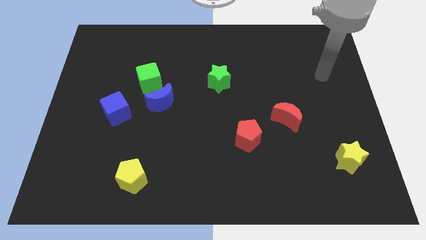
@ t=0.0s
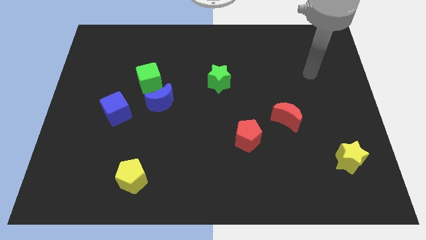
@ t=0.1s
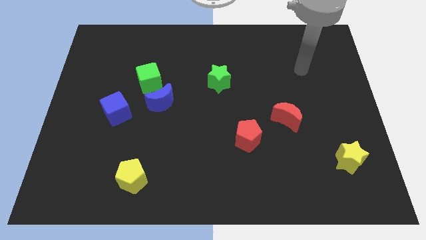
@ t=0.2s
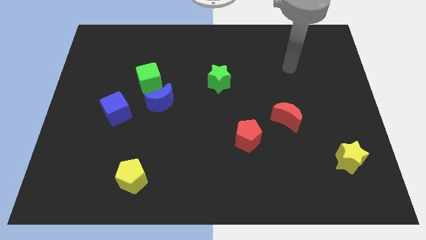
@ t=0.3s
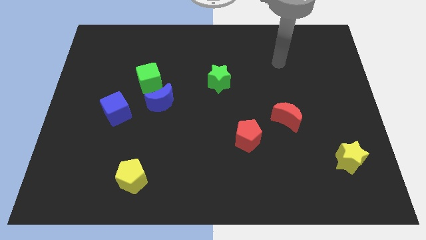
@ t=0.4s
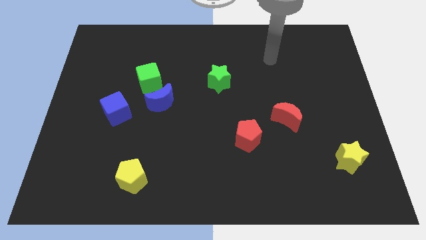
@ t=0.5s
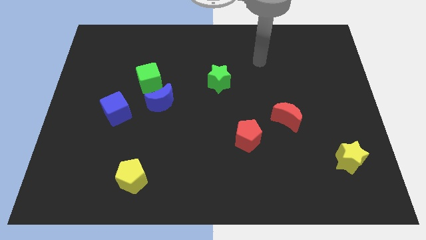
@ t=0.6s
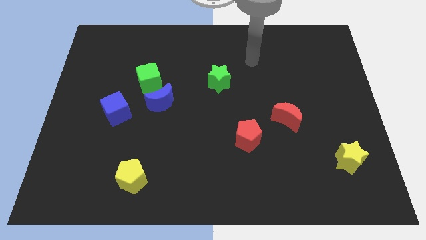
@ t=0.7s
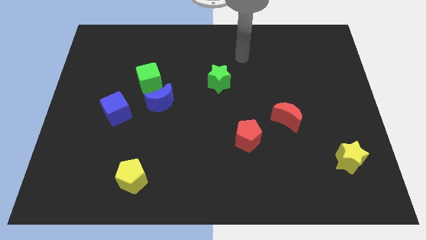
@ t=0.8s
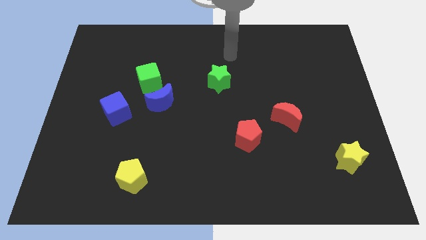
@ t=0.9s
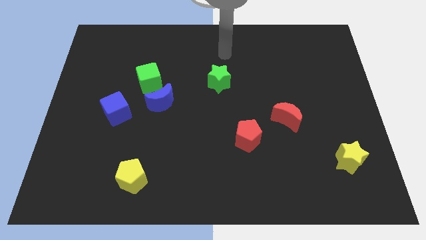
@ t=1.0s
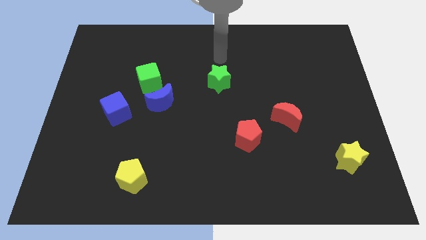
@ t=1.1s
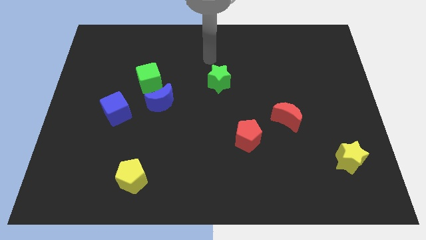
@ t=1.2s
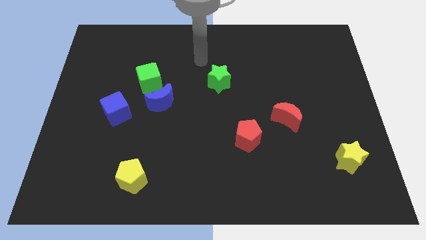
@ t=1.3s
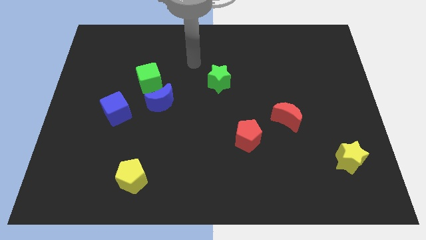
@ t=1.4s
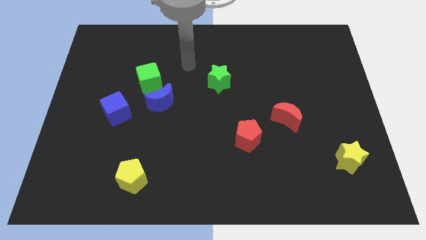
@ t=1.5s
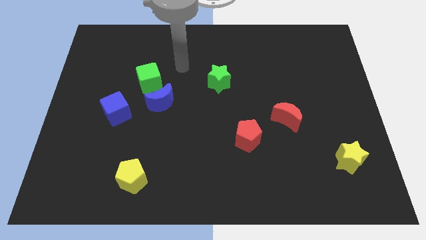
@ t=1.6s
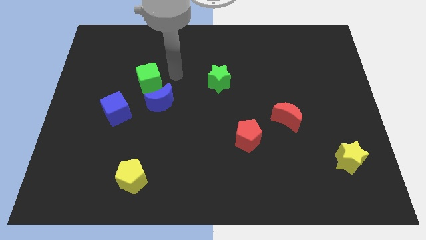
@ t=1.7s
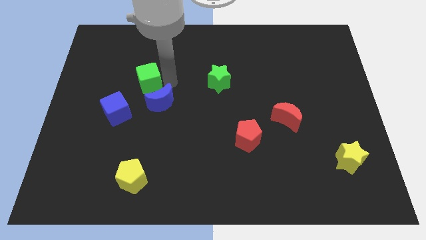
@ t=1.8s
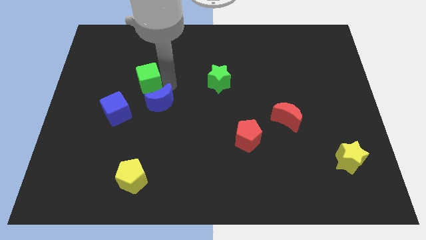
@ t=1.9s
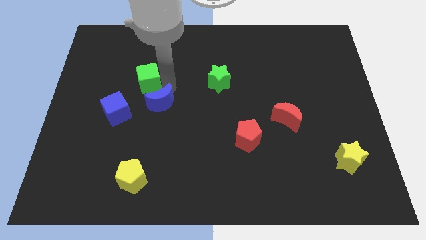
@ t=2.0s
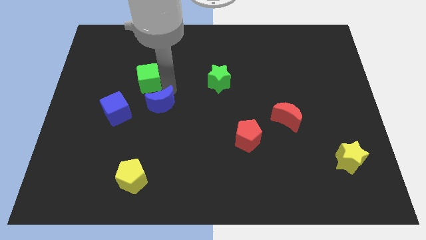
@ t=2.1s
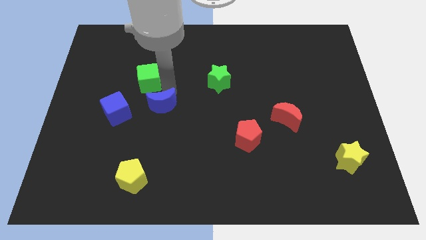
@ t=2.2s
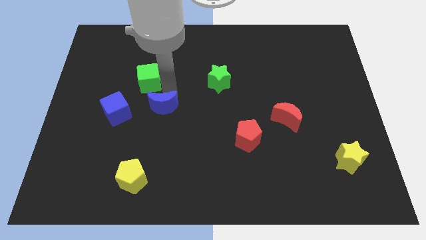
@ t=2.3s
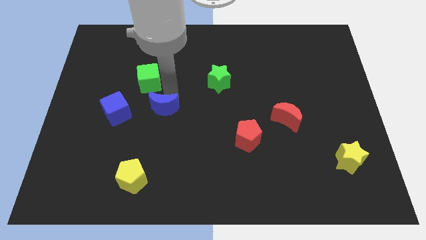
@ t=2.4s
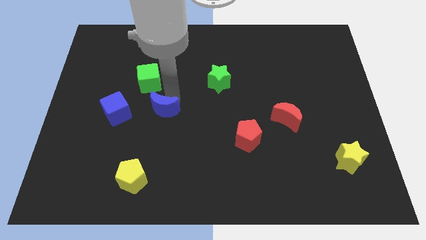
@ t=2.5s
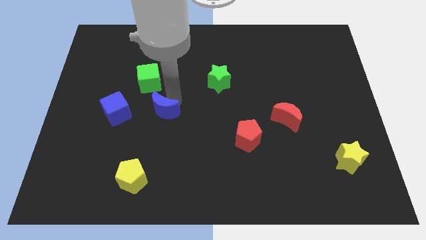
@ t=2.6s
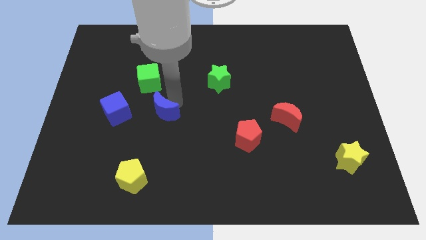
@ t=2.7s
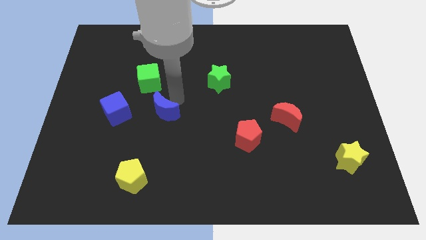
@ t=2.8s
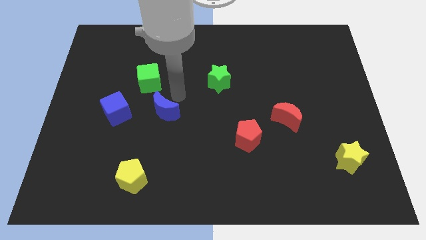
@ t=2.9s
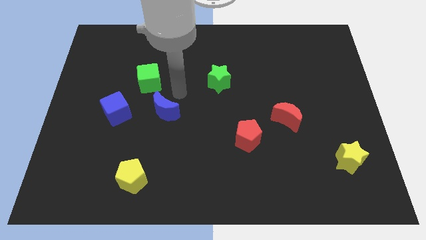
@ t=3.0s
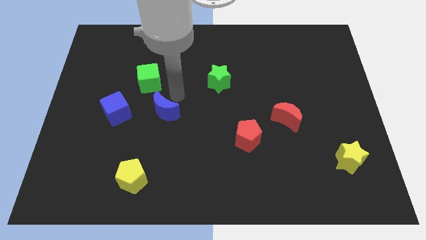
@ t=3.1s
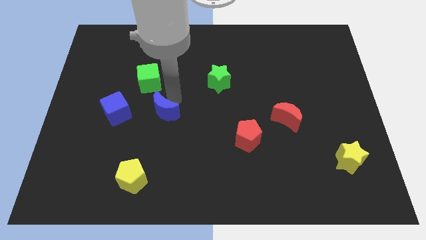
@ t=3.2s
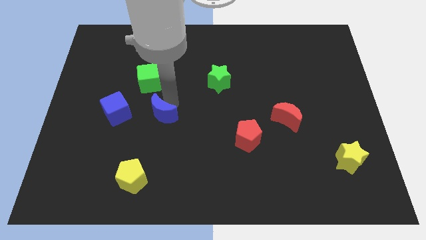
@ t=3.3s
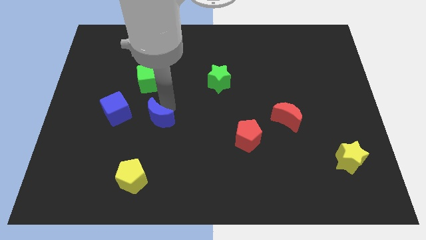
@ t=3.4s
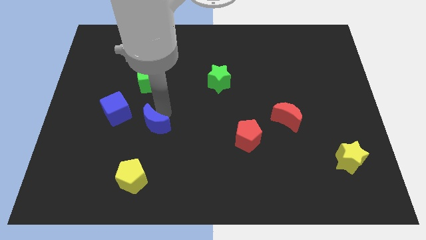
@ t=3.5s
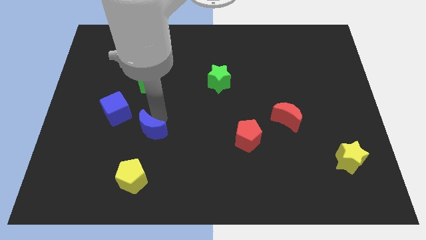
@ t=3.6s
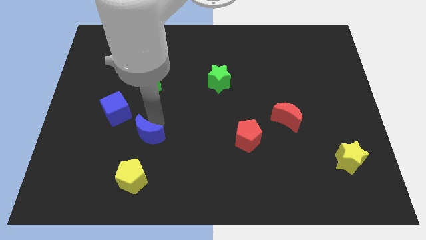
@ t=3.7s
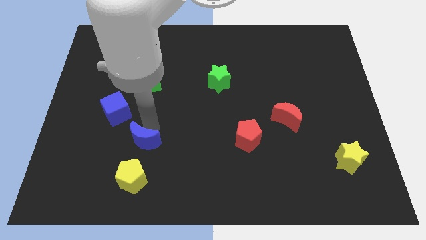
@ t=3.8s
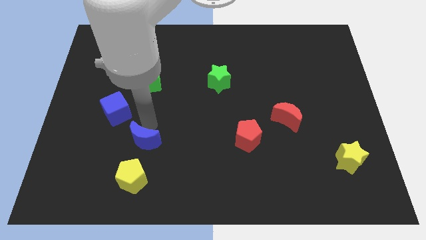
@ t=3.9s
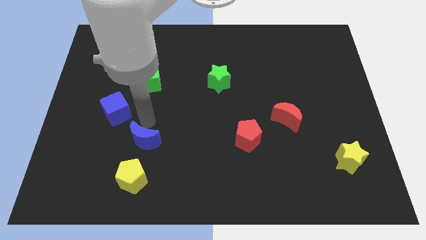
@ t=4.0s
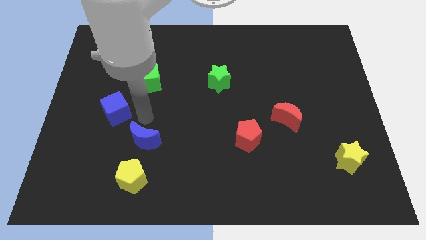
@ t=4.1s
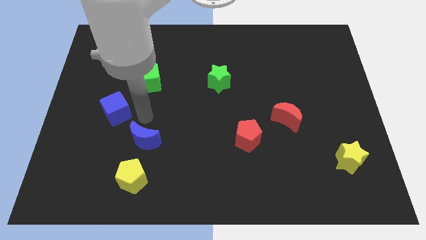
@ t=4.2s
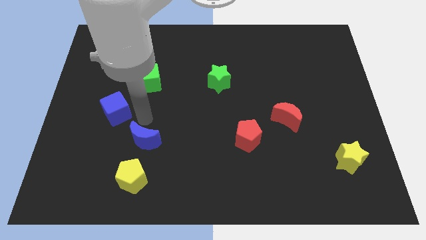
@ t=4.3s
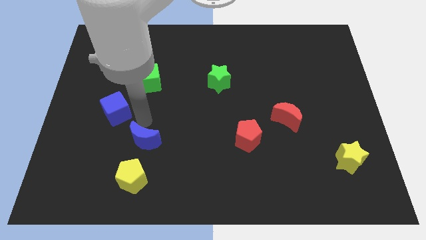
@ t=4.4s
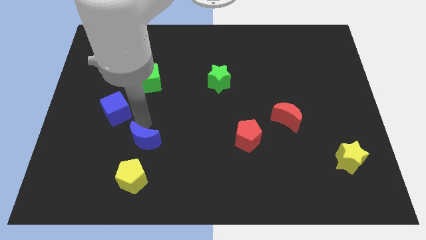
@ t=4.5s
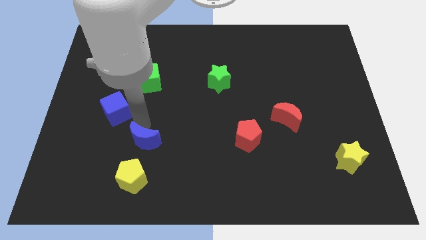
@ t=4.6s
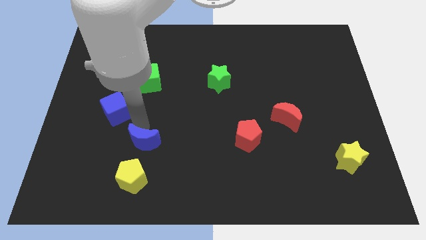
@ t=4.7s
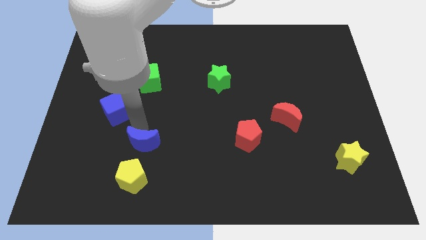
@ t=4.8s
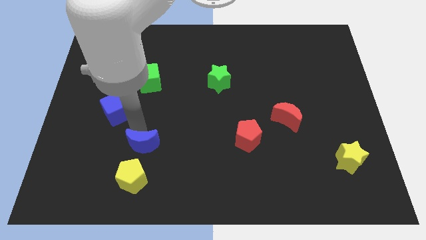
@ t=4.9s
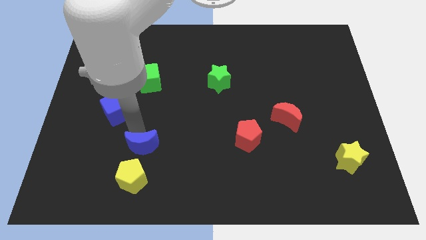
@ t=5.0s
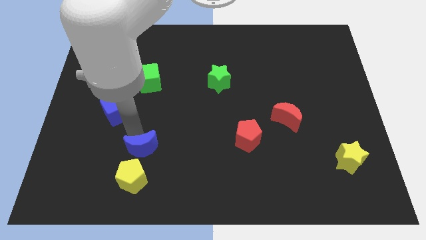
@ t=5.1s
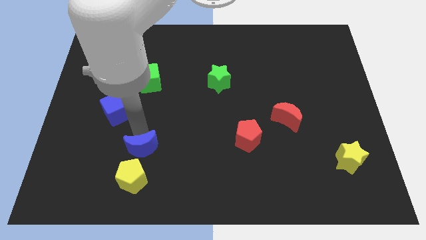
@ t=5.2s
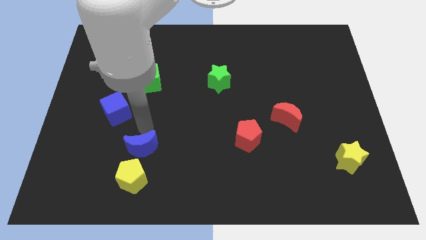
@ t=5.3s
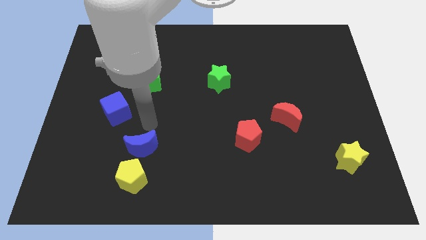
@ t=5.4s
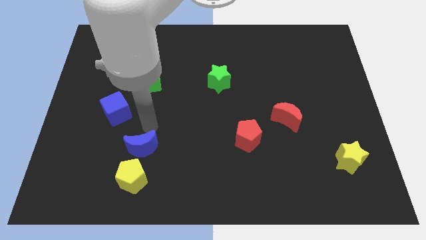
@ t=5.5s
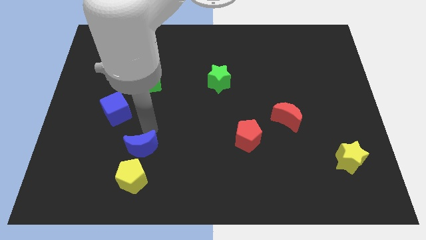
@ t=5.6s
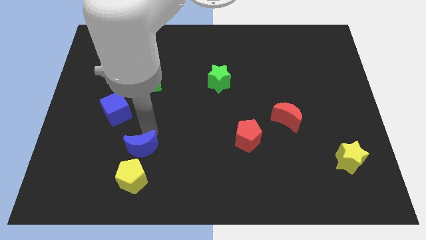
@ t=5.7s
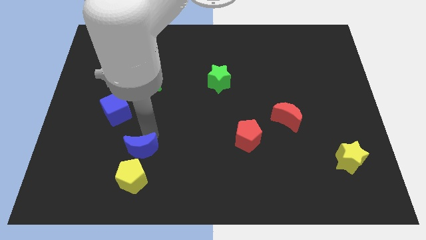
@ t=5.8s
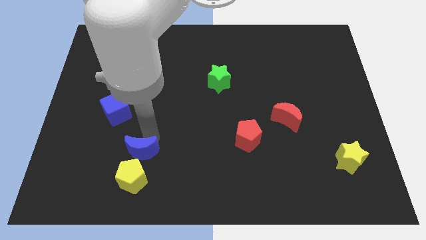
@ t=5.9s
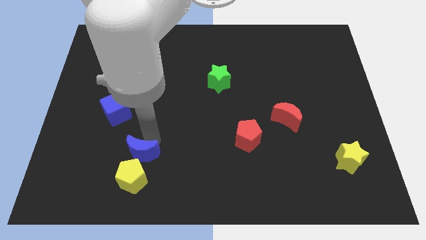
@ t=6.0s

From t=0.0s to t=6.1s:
slide the blue moon to the yellow pentagon
